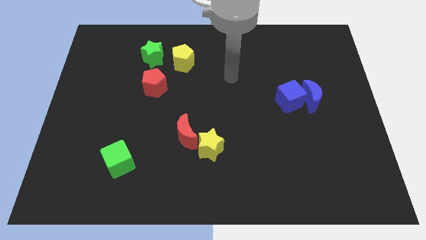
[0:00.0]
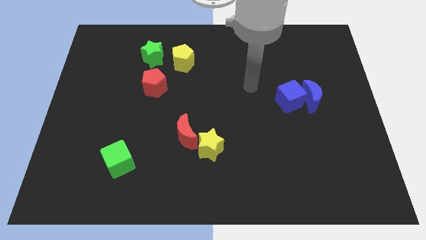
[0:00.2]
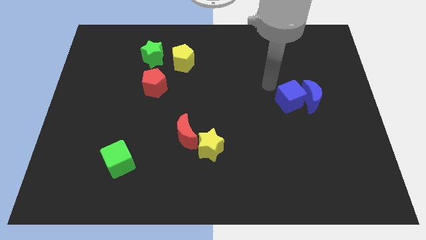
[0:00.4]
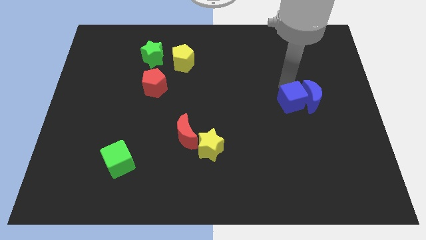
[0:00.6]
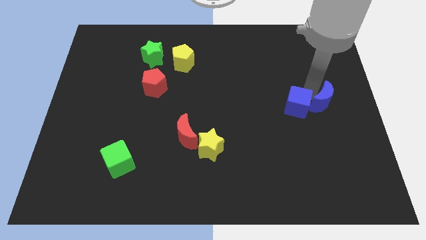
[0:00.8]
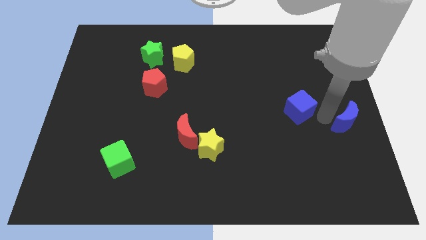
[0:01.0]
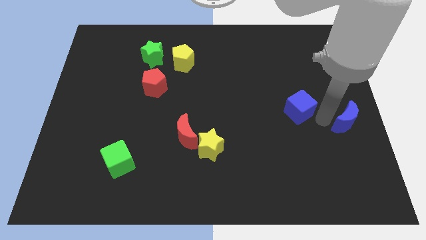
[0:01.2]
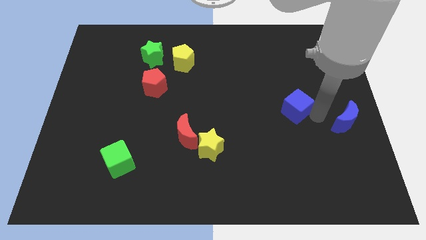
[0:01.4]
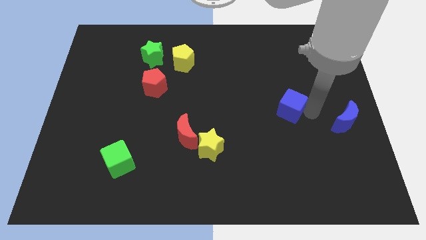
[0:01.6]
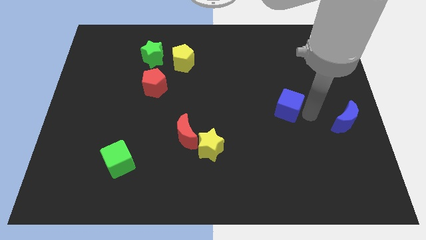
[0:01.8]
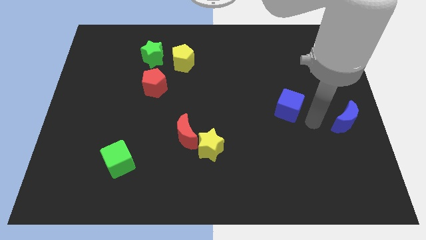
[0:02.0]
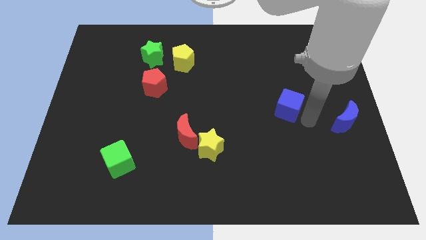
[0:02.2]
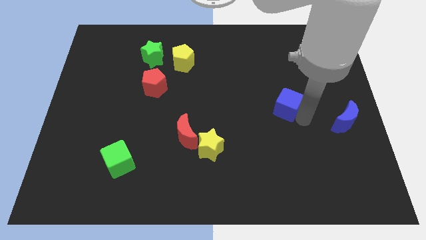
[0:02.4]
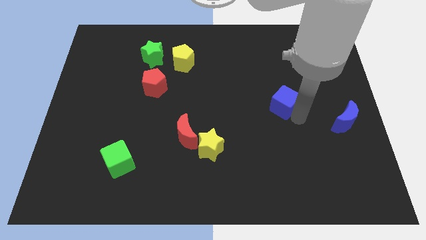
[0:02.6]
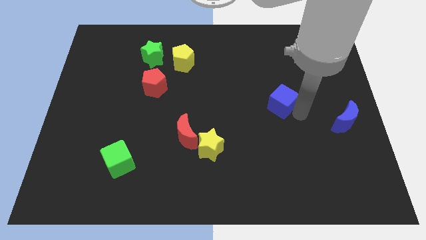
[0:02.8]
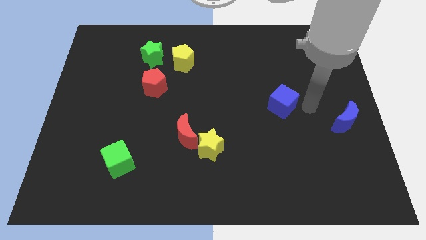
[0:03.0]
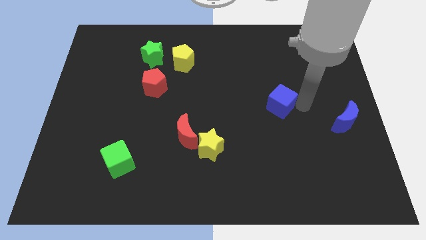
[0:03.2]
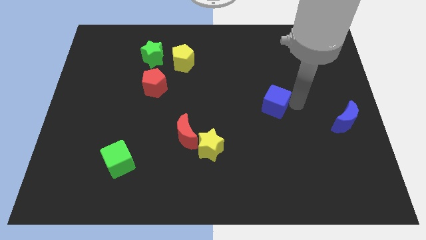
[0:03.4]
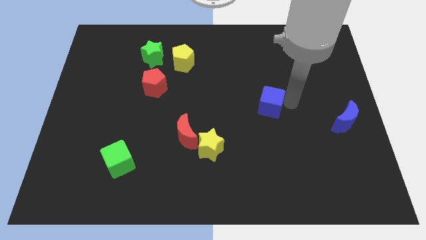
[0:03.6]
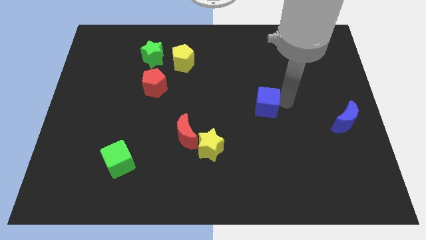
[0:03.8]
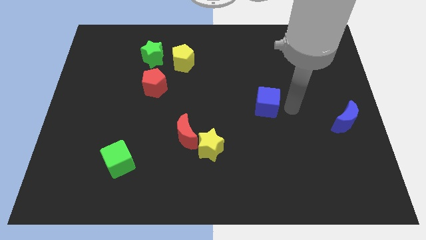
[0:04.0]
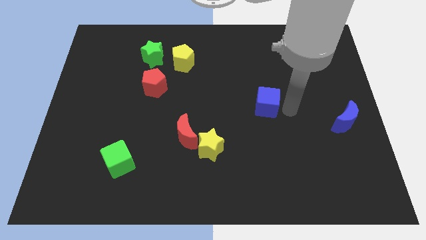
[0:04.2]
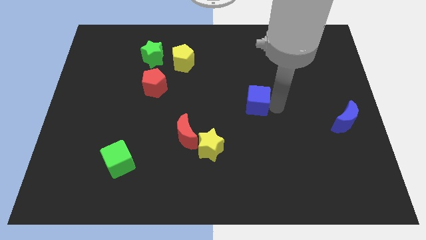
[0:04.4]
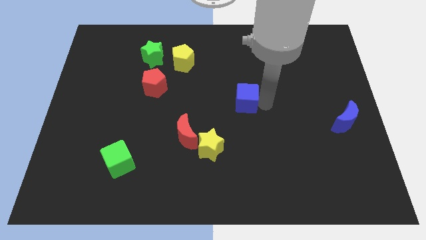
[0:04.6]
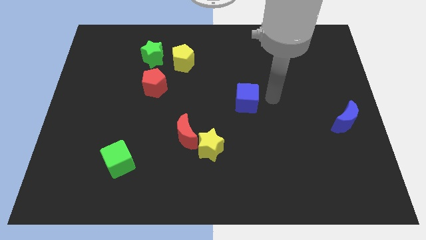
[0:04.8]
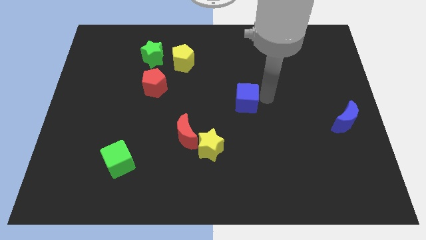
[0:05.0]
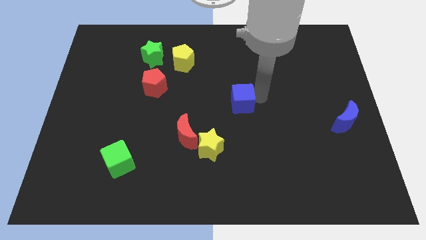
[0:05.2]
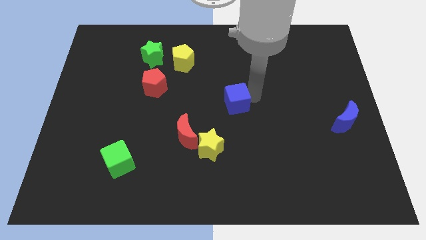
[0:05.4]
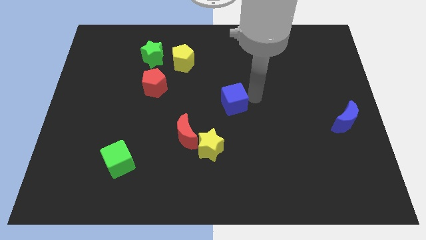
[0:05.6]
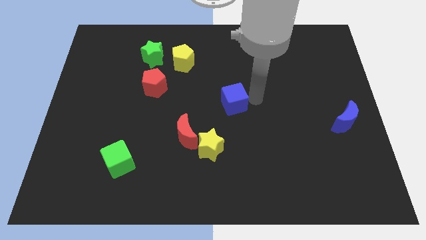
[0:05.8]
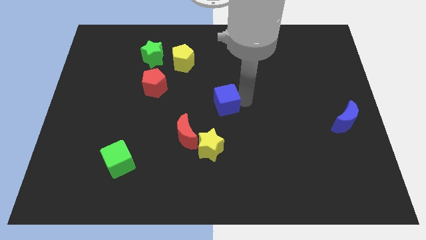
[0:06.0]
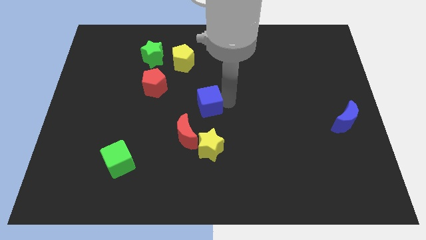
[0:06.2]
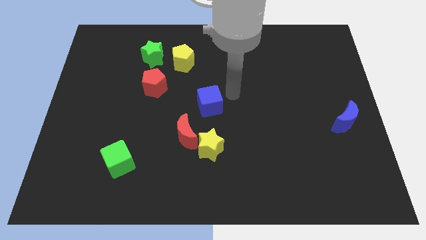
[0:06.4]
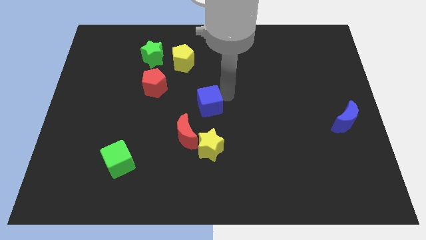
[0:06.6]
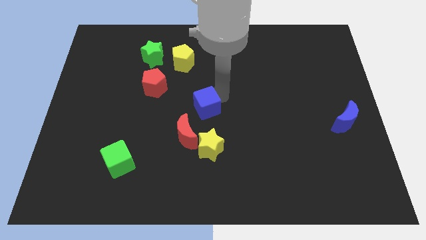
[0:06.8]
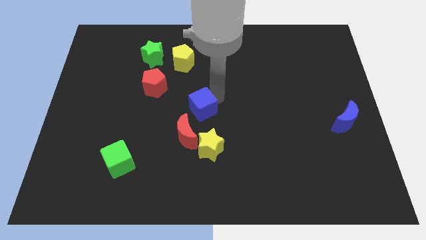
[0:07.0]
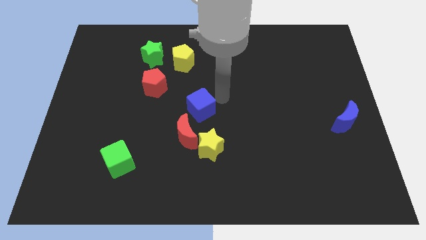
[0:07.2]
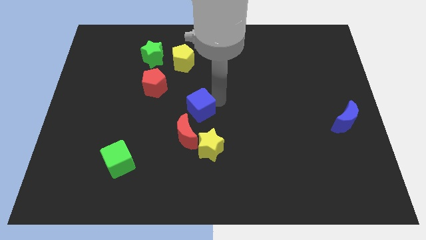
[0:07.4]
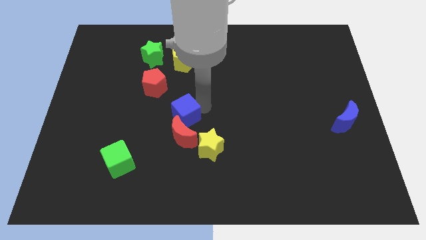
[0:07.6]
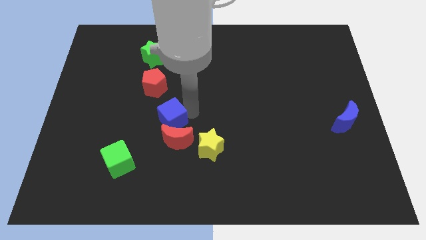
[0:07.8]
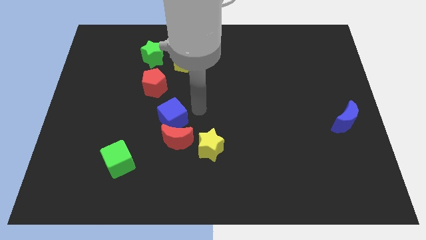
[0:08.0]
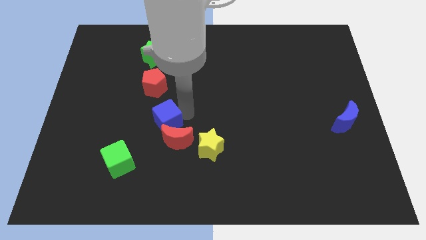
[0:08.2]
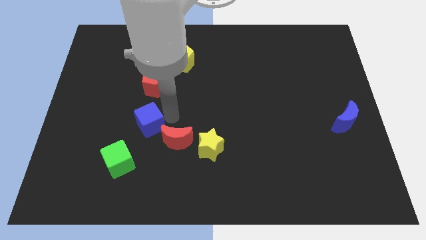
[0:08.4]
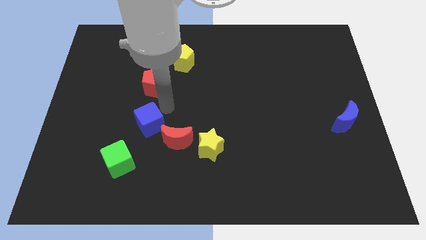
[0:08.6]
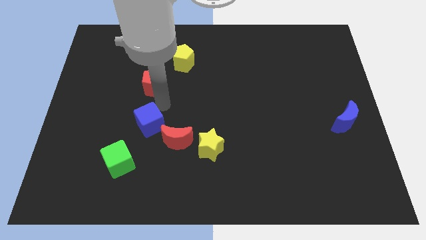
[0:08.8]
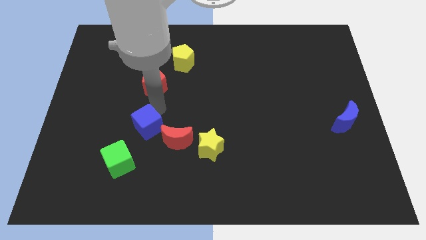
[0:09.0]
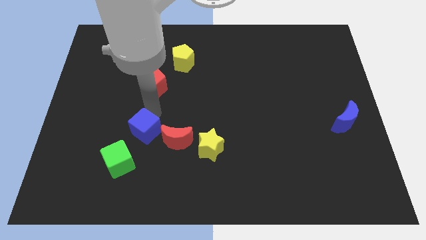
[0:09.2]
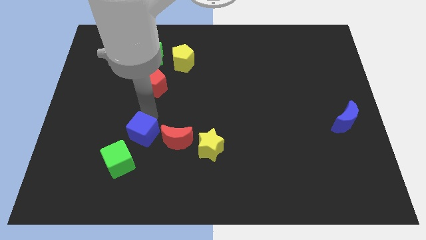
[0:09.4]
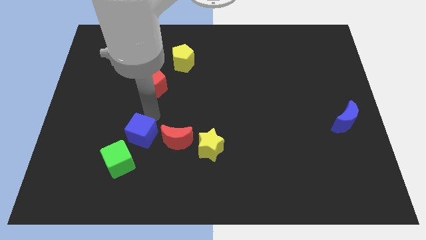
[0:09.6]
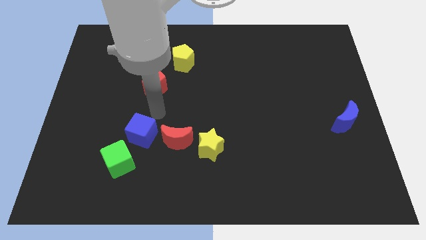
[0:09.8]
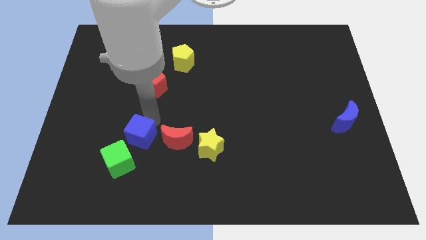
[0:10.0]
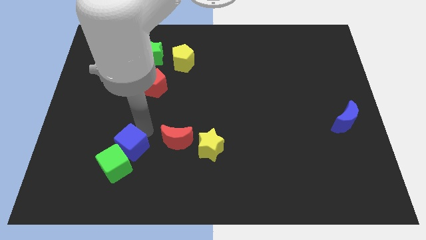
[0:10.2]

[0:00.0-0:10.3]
move the blue cube to the green cube

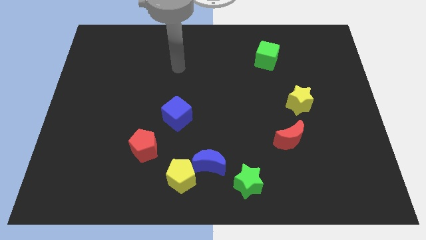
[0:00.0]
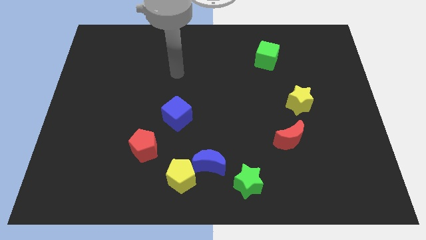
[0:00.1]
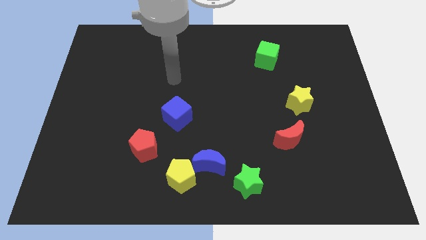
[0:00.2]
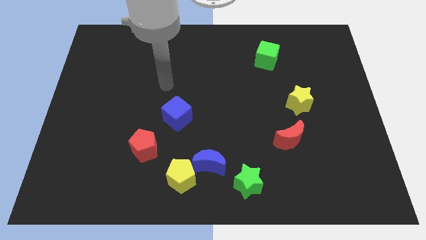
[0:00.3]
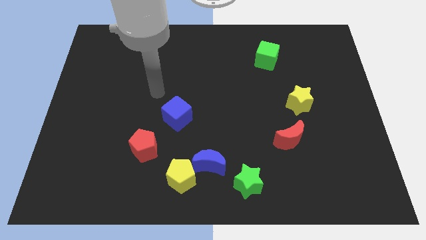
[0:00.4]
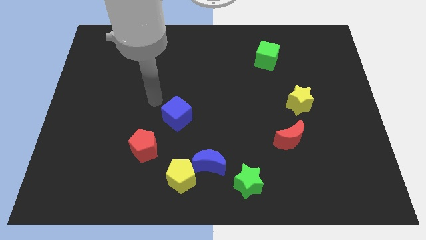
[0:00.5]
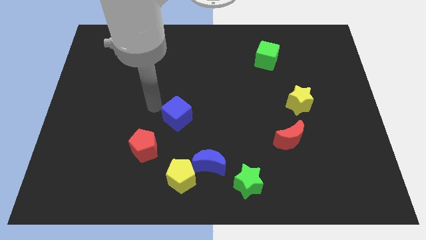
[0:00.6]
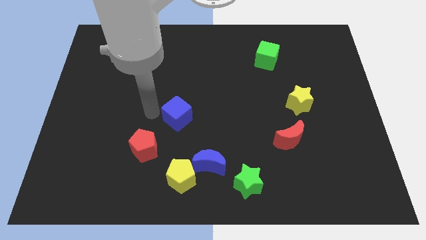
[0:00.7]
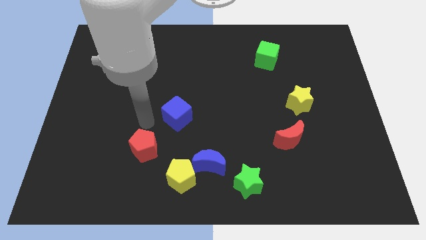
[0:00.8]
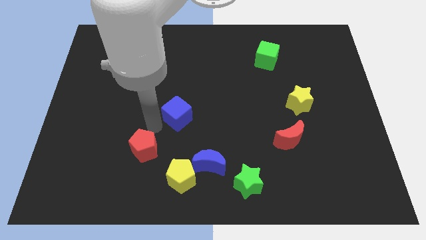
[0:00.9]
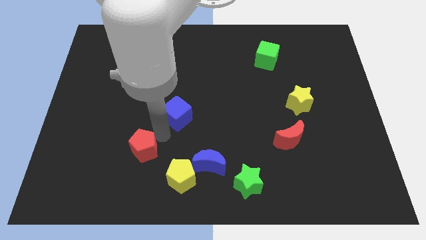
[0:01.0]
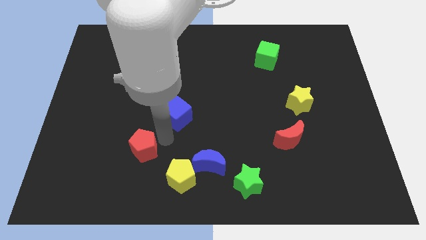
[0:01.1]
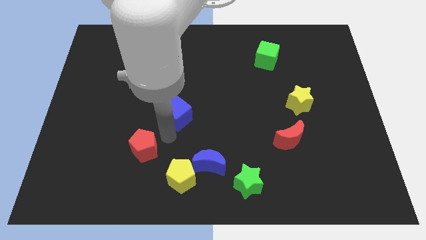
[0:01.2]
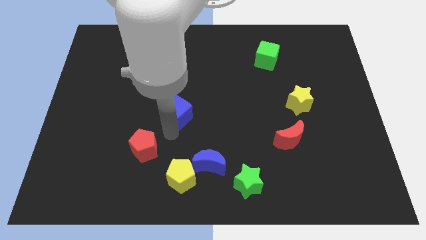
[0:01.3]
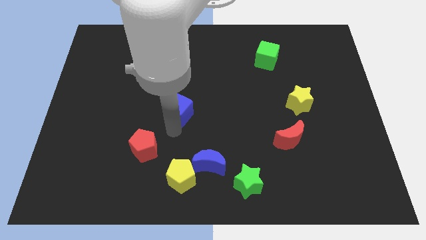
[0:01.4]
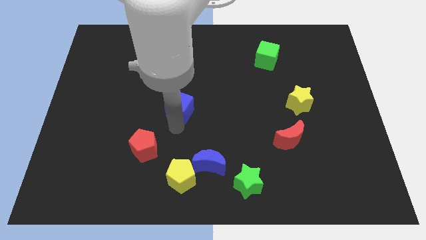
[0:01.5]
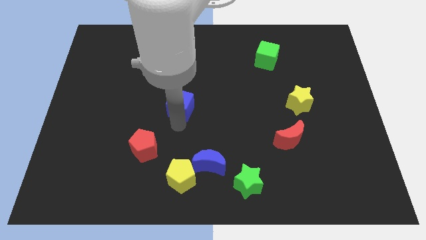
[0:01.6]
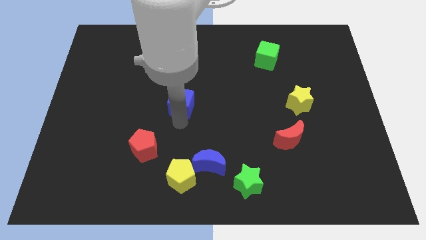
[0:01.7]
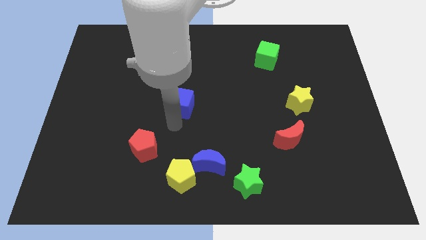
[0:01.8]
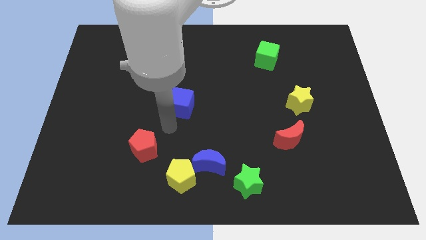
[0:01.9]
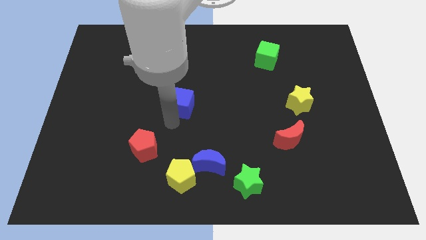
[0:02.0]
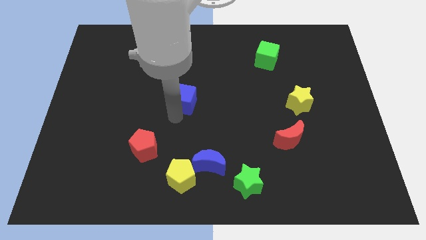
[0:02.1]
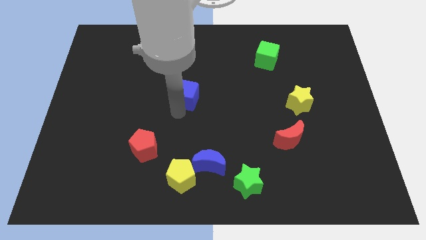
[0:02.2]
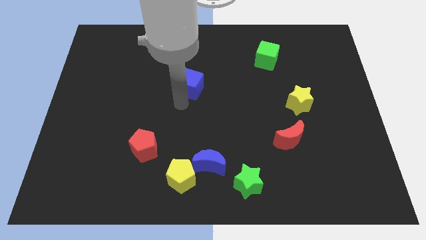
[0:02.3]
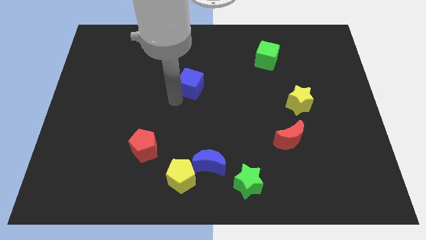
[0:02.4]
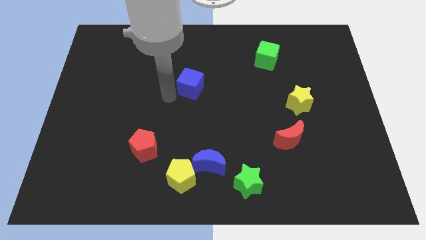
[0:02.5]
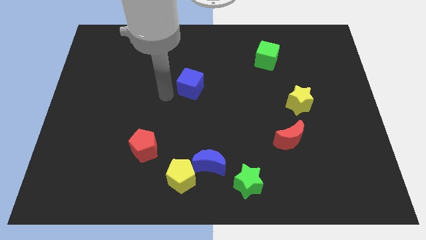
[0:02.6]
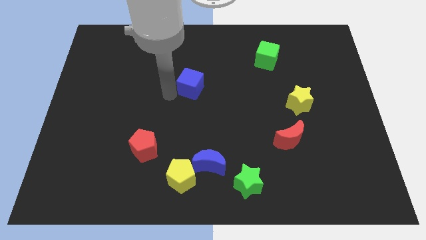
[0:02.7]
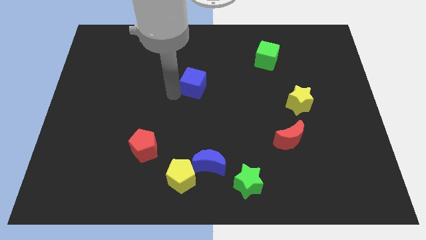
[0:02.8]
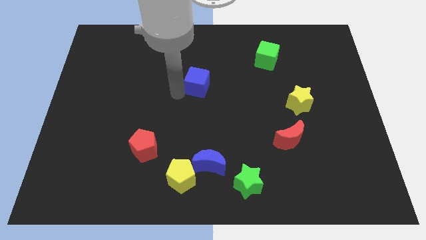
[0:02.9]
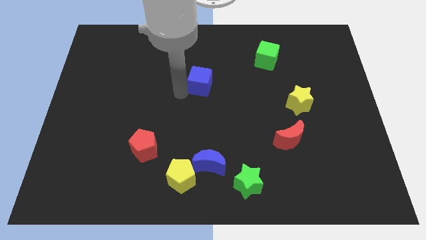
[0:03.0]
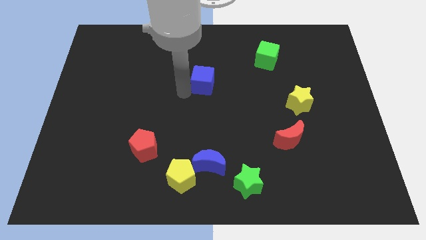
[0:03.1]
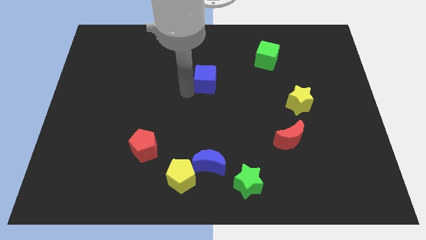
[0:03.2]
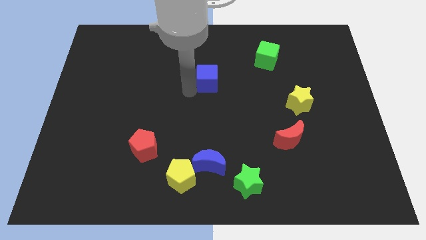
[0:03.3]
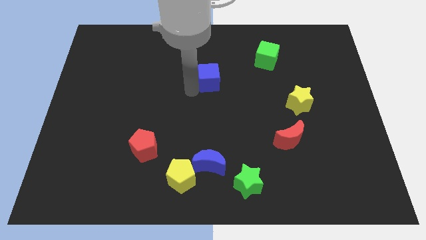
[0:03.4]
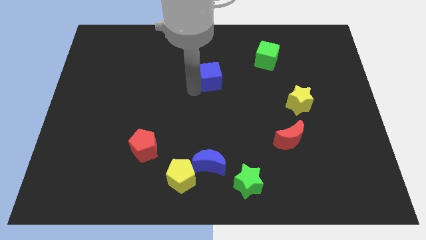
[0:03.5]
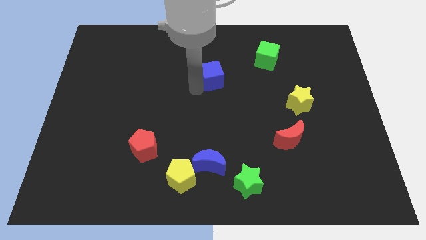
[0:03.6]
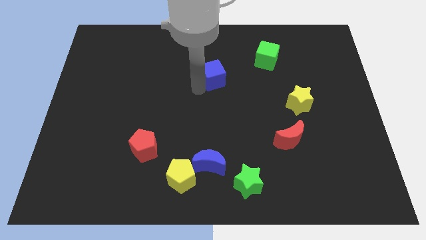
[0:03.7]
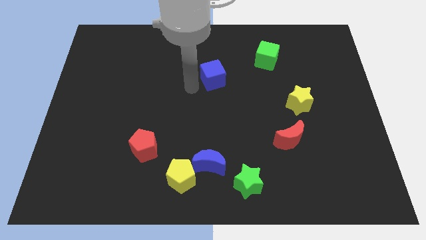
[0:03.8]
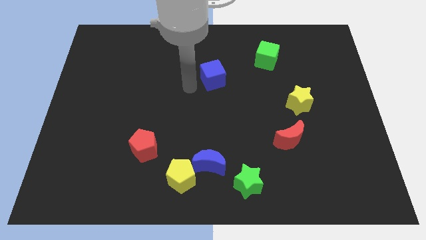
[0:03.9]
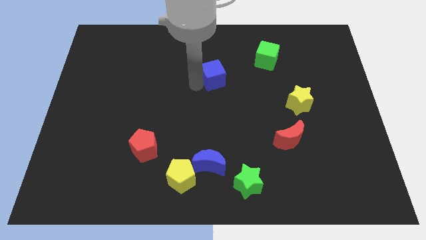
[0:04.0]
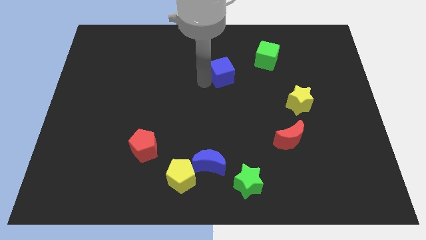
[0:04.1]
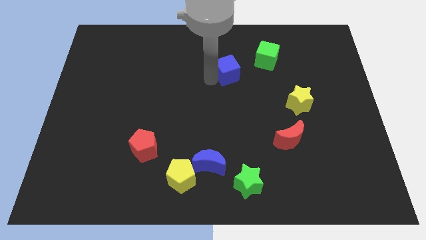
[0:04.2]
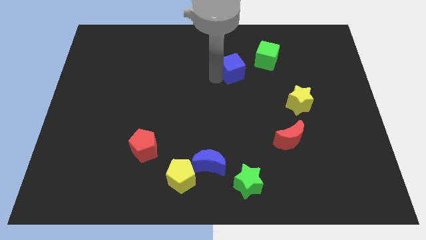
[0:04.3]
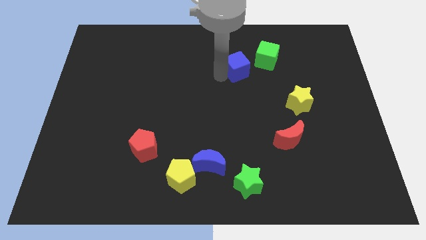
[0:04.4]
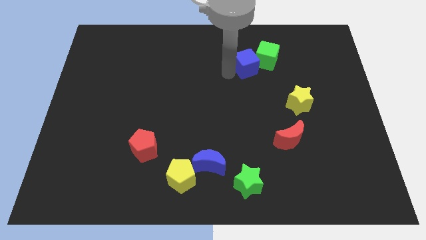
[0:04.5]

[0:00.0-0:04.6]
slide the blue cube next to the green cube
